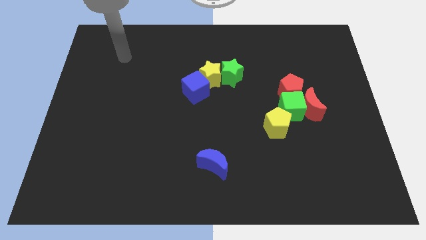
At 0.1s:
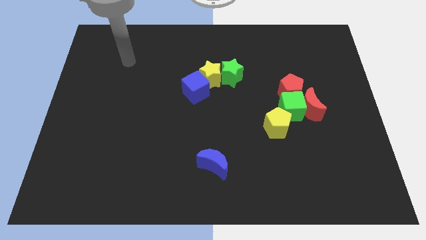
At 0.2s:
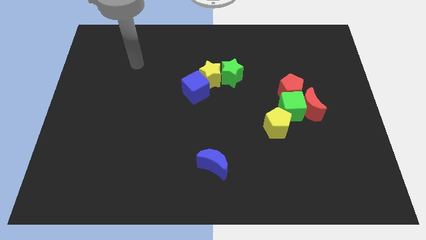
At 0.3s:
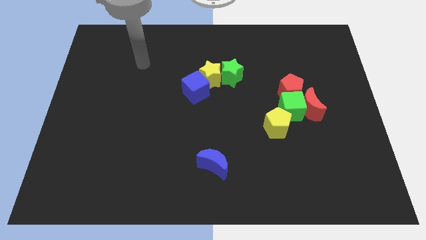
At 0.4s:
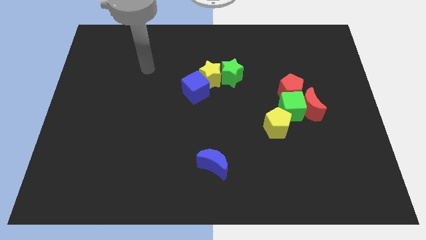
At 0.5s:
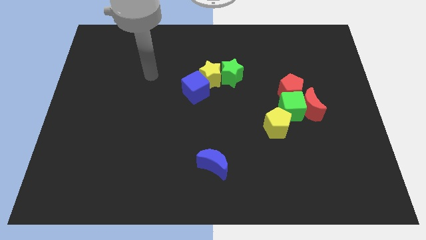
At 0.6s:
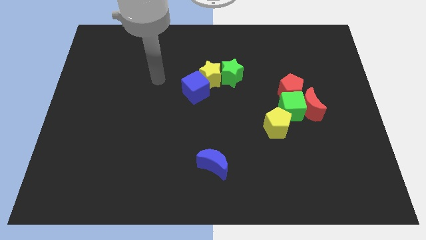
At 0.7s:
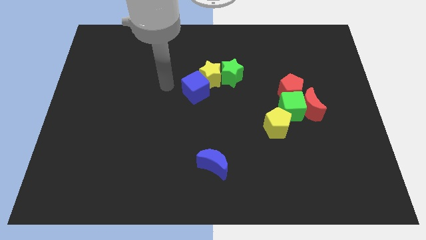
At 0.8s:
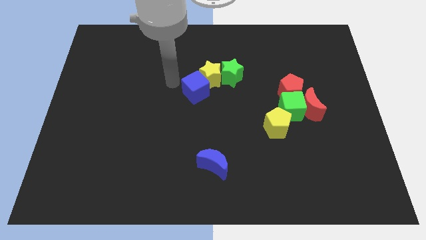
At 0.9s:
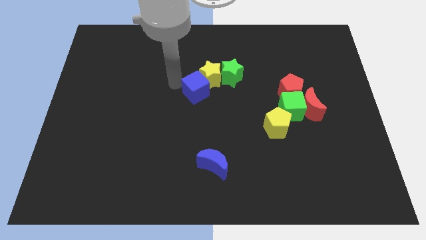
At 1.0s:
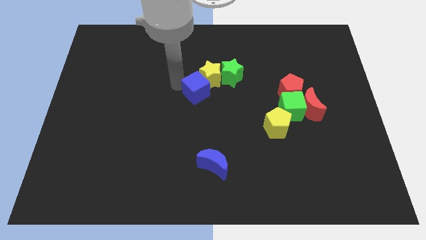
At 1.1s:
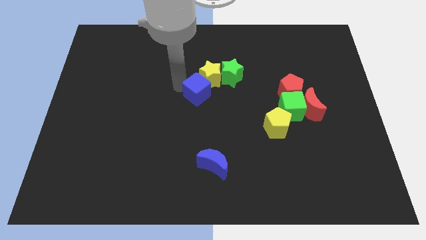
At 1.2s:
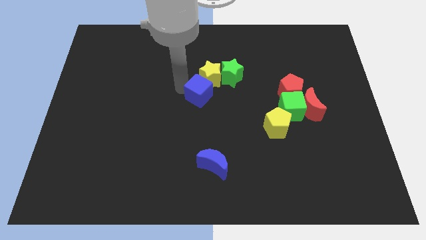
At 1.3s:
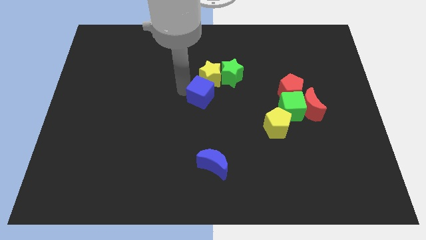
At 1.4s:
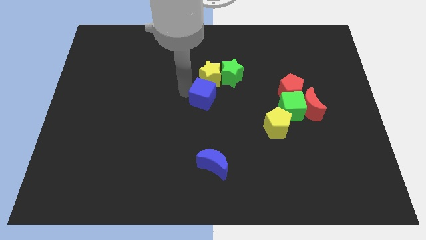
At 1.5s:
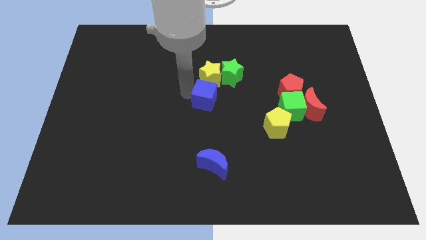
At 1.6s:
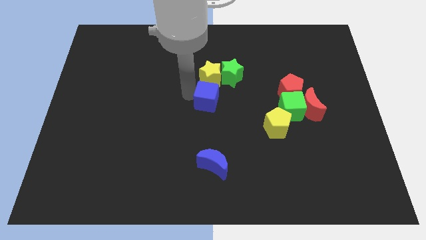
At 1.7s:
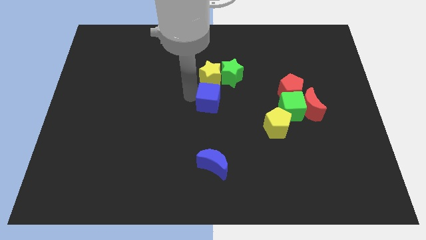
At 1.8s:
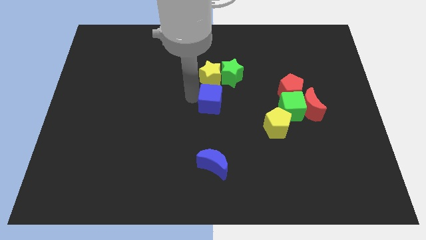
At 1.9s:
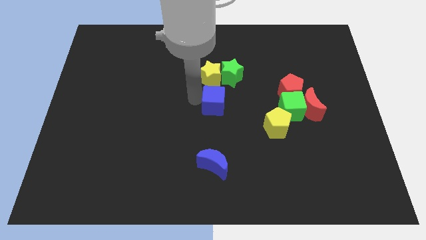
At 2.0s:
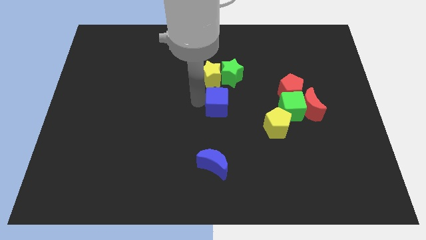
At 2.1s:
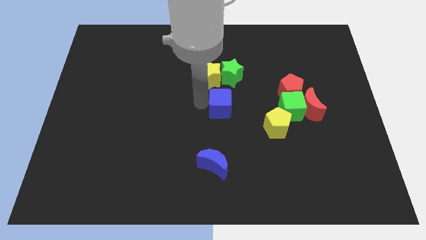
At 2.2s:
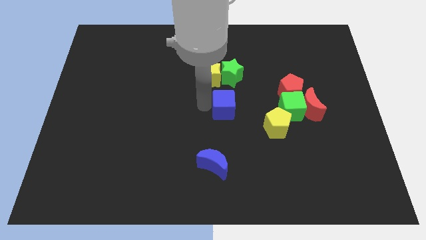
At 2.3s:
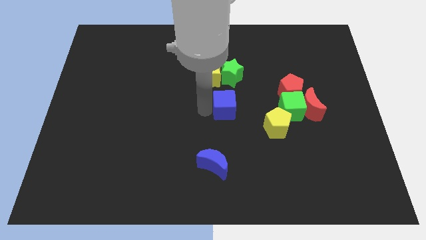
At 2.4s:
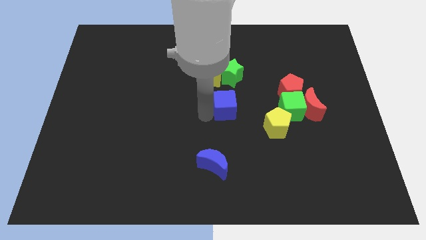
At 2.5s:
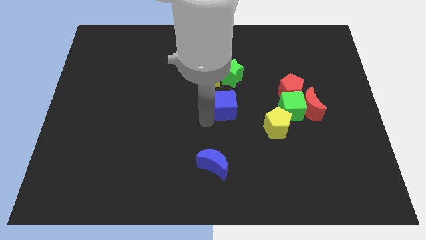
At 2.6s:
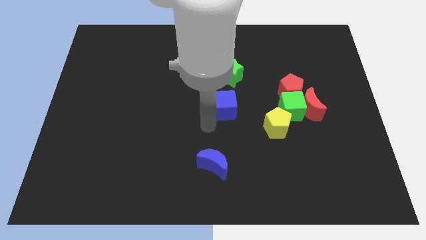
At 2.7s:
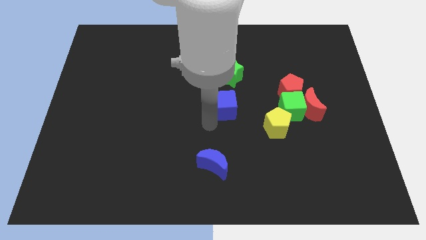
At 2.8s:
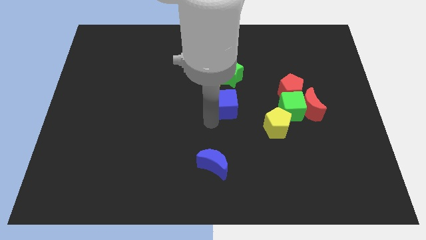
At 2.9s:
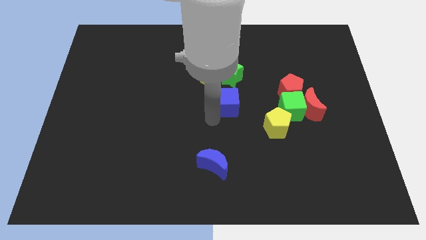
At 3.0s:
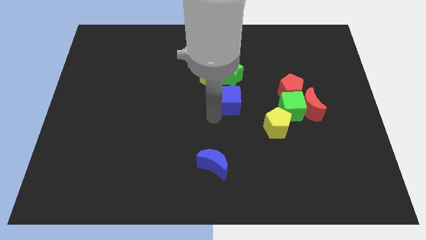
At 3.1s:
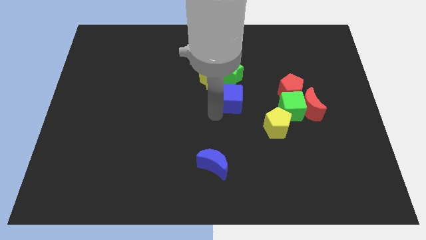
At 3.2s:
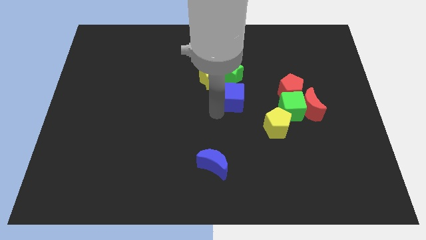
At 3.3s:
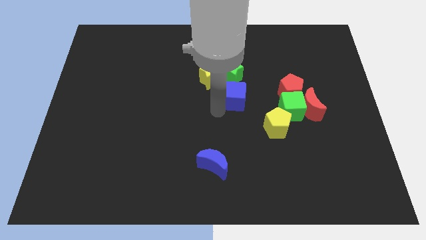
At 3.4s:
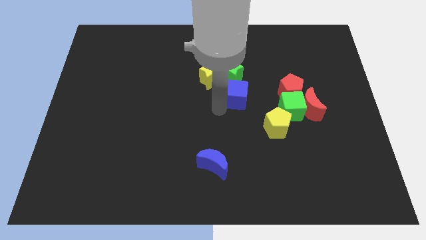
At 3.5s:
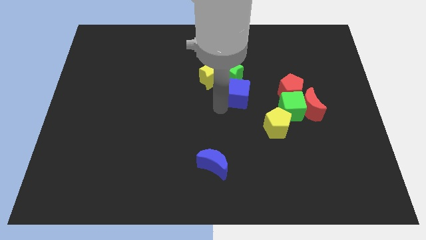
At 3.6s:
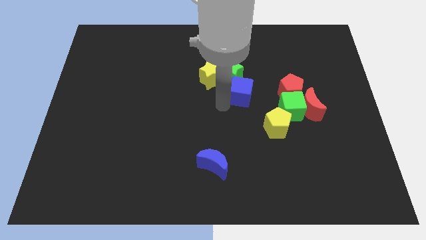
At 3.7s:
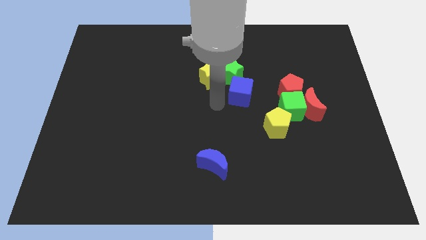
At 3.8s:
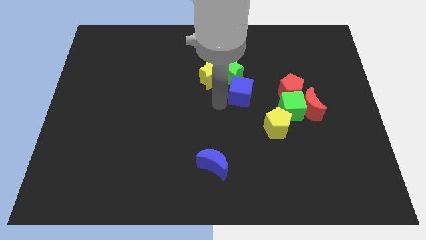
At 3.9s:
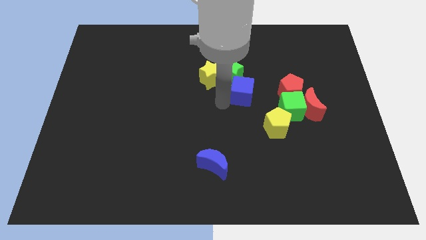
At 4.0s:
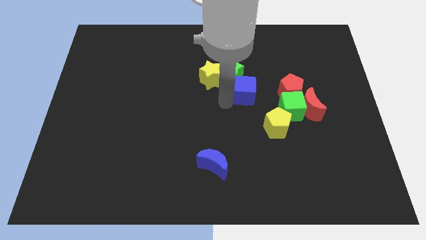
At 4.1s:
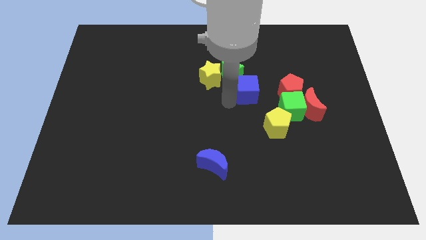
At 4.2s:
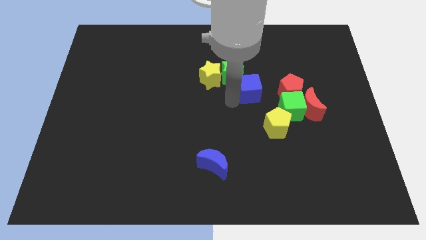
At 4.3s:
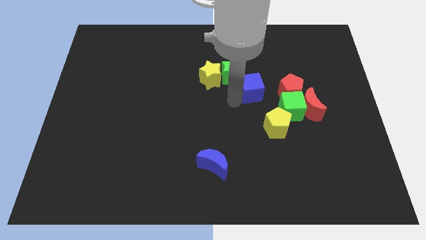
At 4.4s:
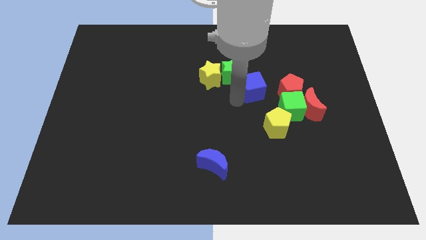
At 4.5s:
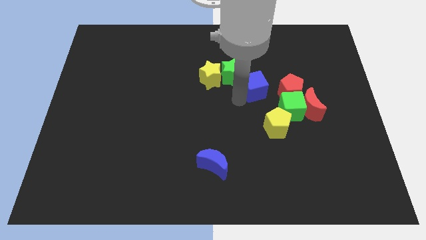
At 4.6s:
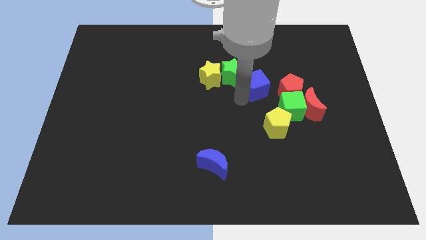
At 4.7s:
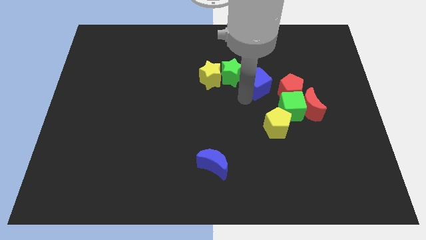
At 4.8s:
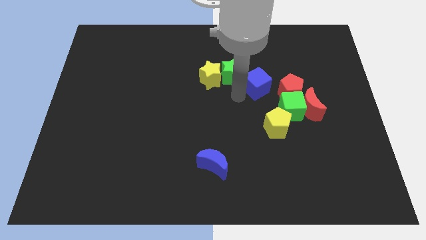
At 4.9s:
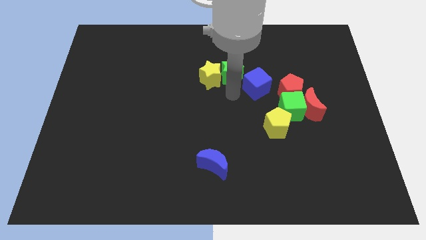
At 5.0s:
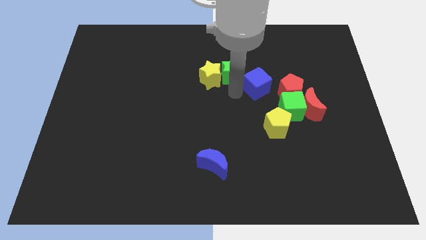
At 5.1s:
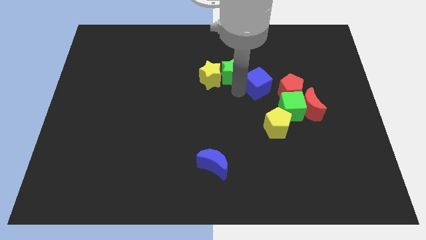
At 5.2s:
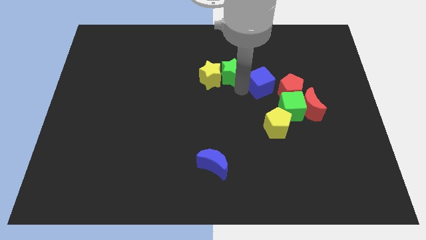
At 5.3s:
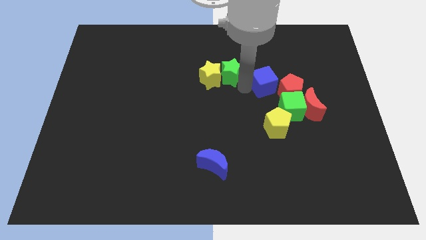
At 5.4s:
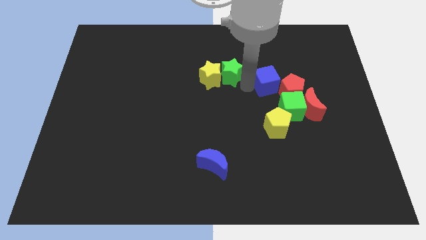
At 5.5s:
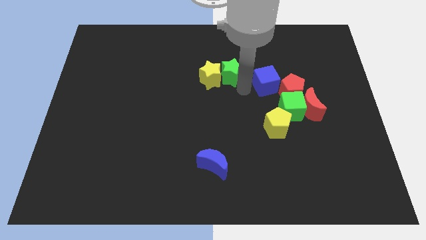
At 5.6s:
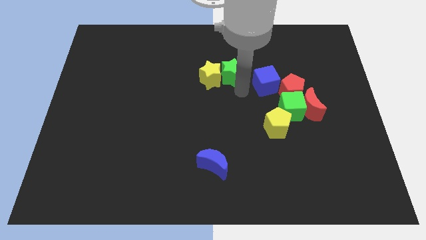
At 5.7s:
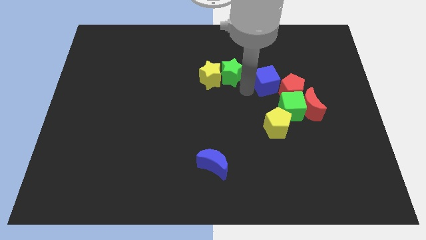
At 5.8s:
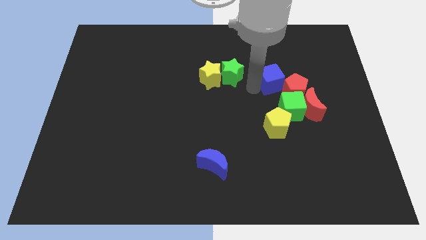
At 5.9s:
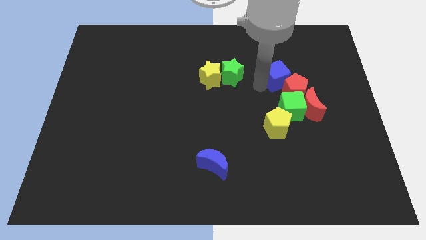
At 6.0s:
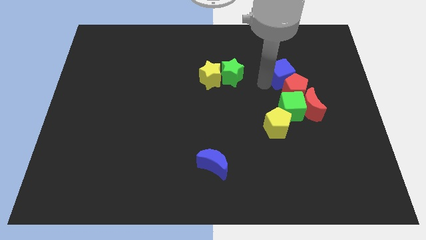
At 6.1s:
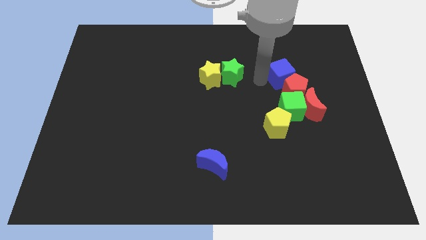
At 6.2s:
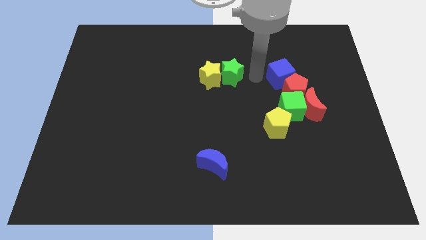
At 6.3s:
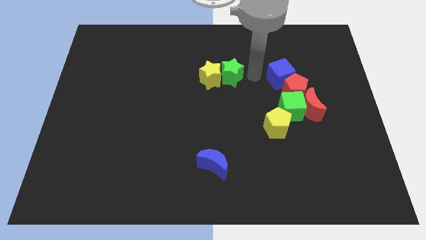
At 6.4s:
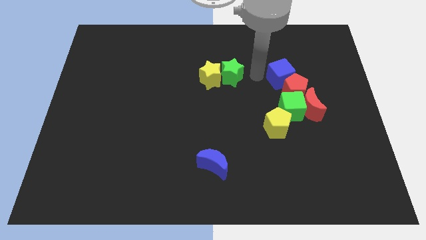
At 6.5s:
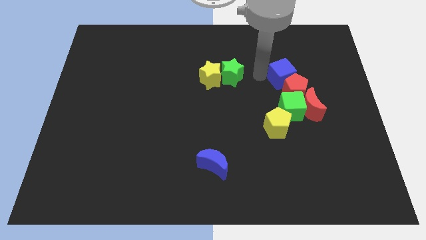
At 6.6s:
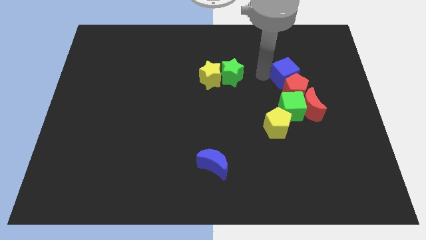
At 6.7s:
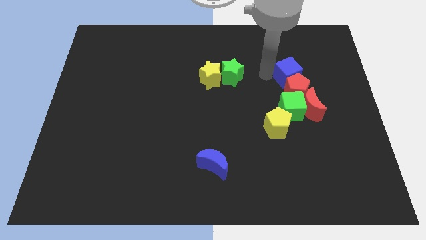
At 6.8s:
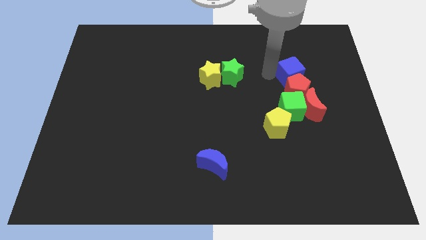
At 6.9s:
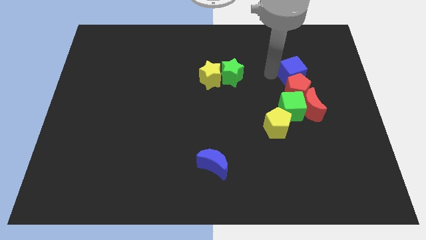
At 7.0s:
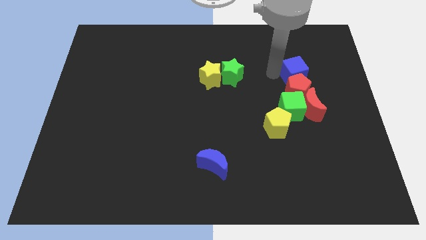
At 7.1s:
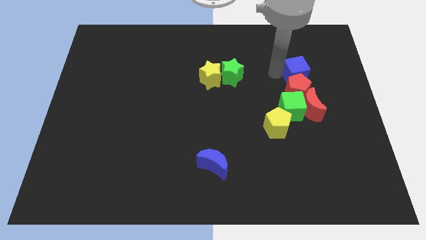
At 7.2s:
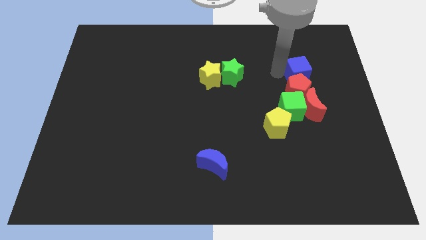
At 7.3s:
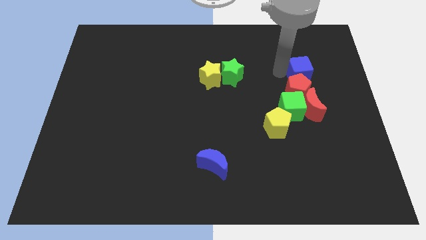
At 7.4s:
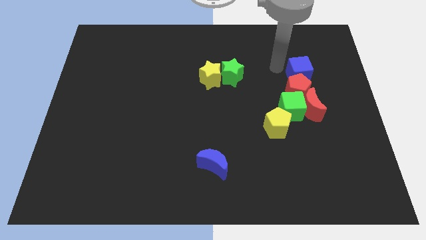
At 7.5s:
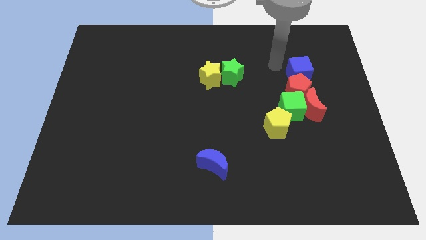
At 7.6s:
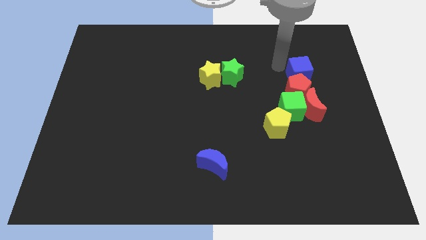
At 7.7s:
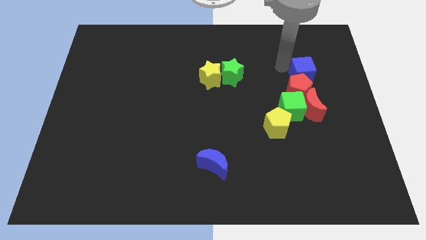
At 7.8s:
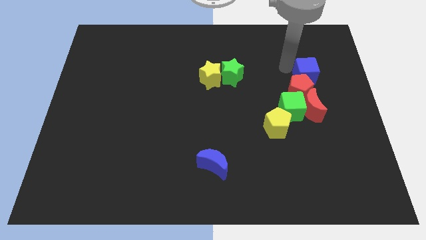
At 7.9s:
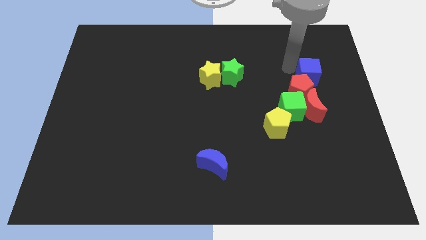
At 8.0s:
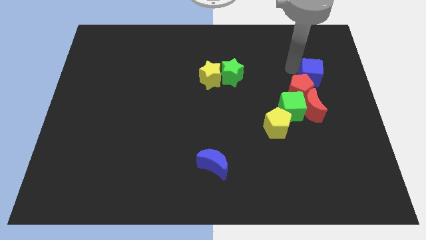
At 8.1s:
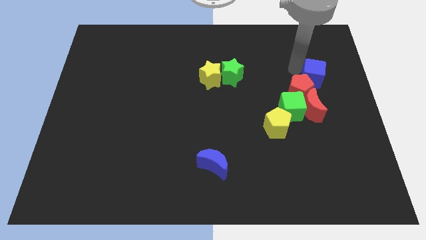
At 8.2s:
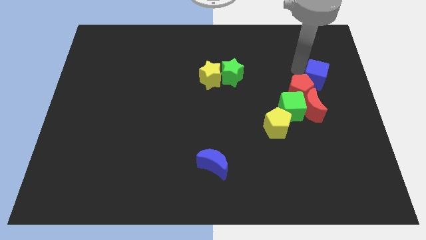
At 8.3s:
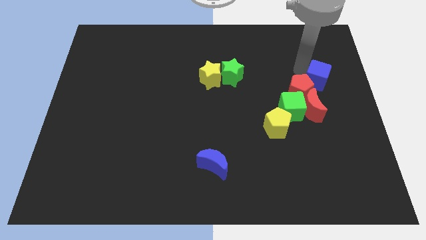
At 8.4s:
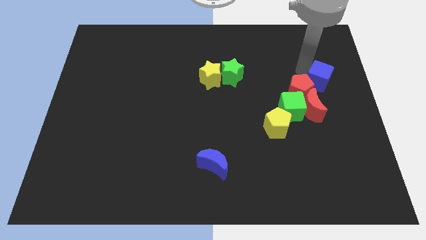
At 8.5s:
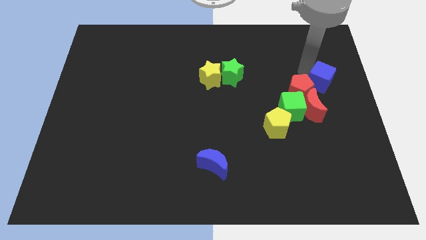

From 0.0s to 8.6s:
slide the blue cube to the right side of the board
